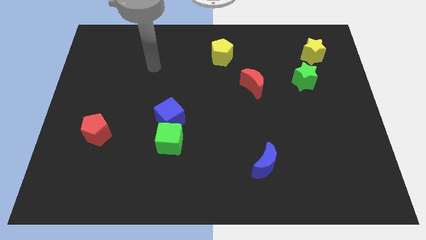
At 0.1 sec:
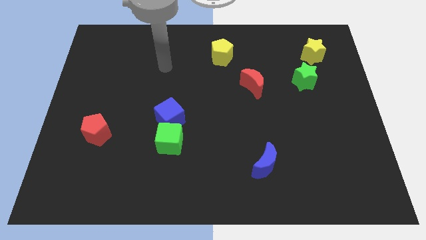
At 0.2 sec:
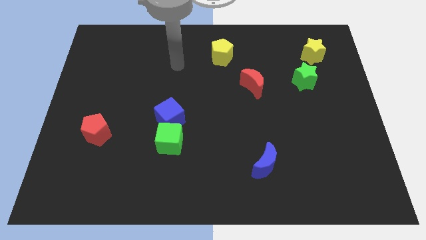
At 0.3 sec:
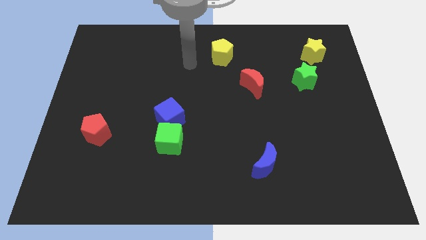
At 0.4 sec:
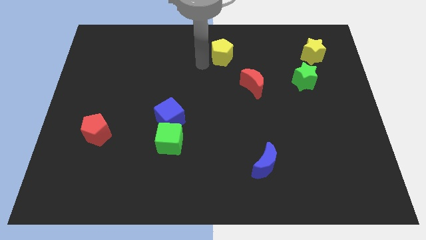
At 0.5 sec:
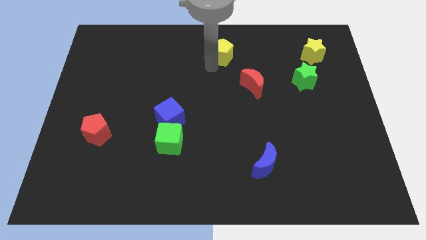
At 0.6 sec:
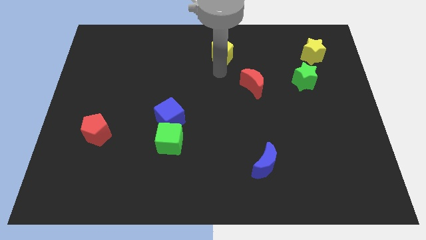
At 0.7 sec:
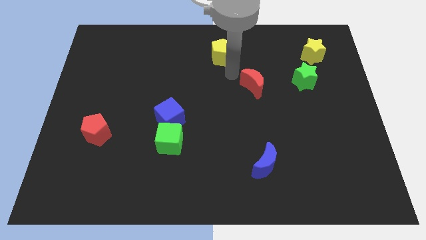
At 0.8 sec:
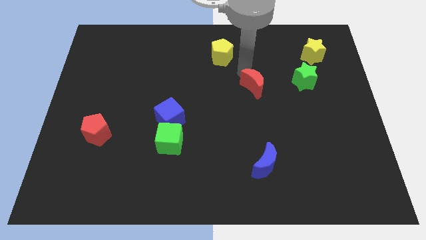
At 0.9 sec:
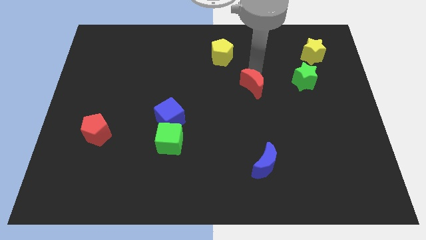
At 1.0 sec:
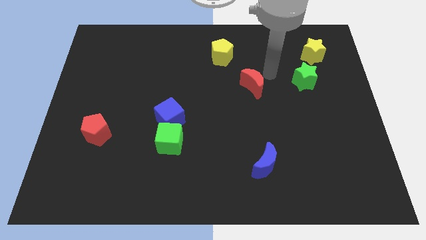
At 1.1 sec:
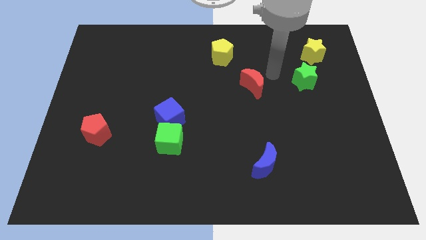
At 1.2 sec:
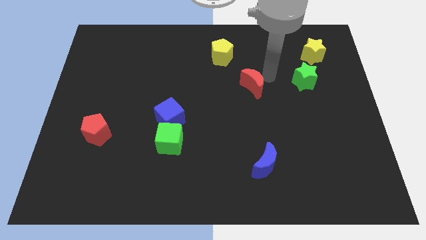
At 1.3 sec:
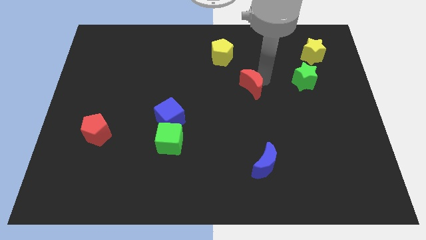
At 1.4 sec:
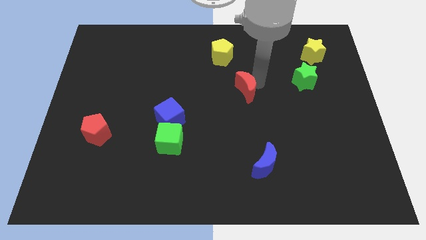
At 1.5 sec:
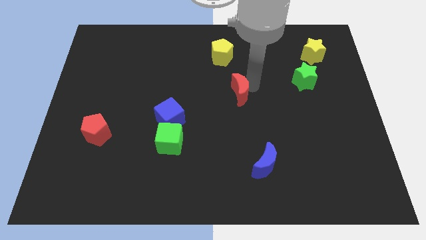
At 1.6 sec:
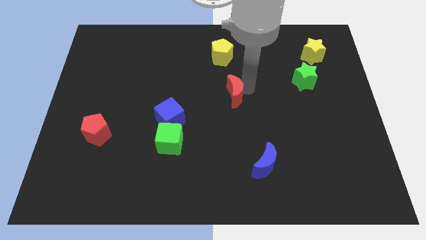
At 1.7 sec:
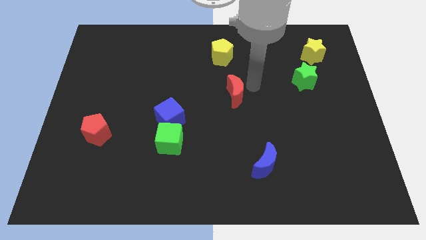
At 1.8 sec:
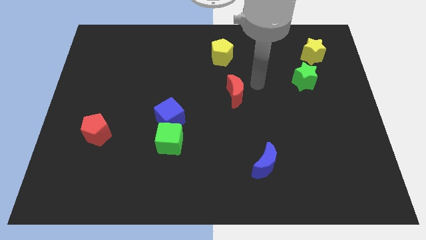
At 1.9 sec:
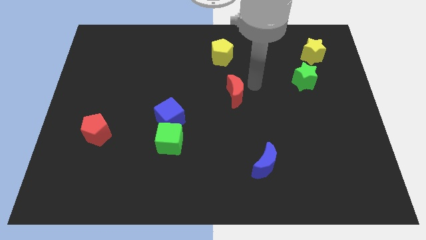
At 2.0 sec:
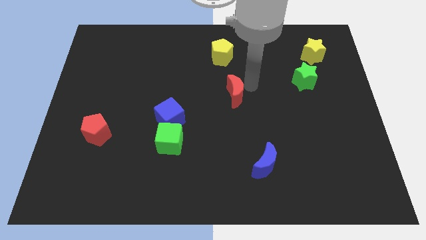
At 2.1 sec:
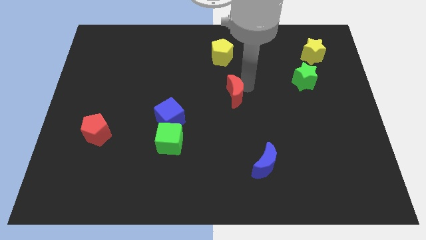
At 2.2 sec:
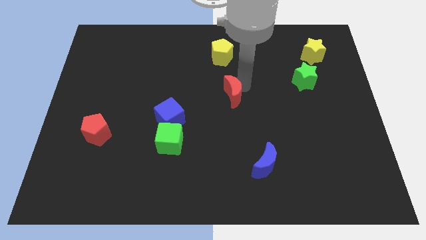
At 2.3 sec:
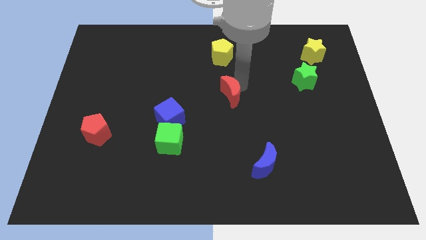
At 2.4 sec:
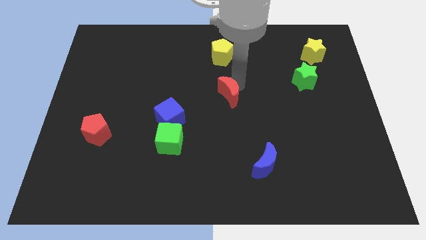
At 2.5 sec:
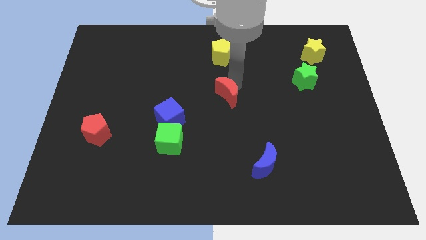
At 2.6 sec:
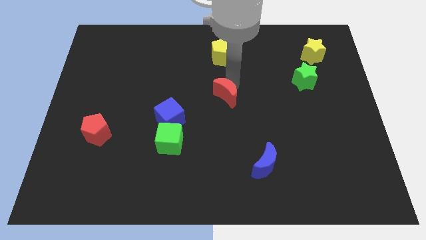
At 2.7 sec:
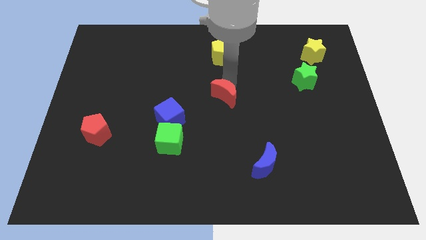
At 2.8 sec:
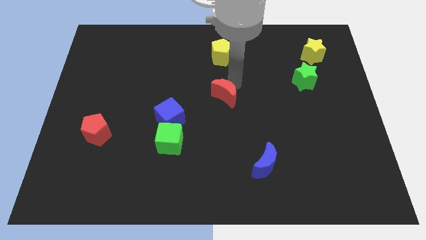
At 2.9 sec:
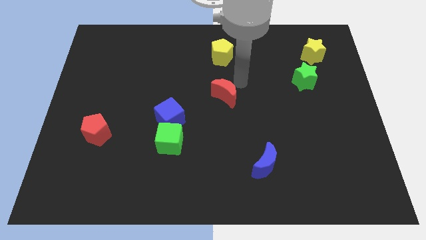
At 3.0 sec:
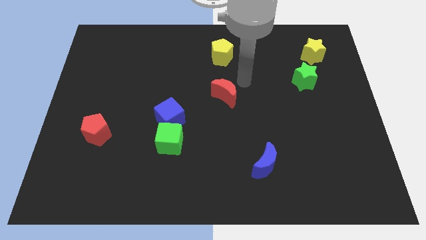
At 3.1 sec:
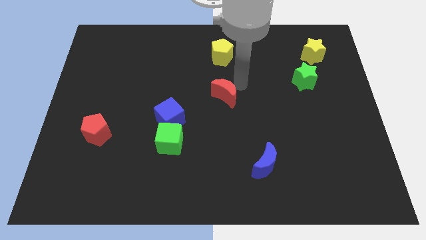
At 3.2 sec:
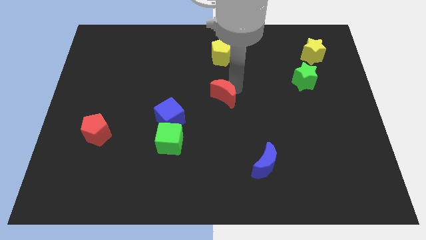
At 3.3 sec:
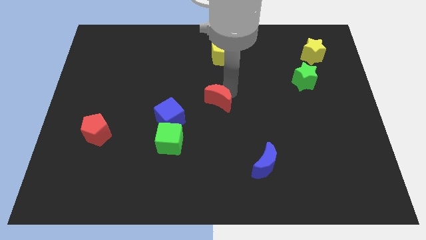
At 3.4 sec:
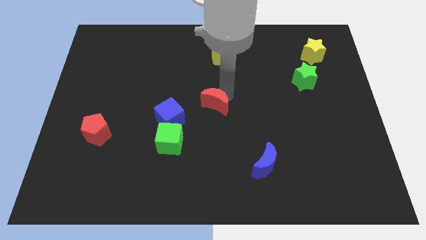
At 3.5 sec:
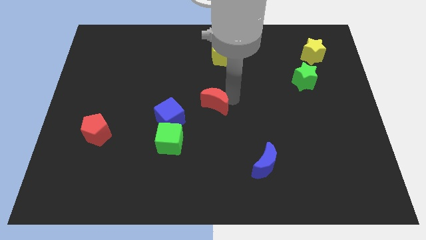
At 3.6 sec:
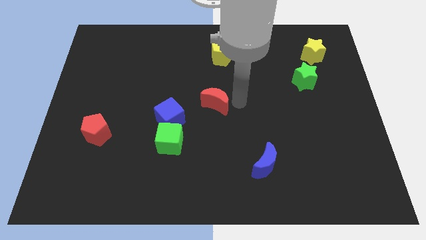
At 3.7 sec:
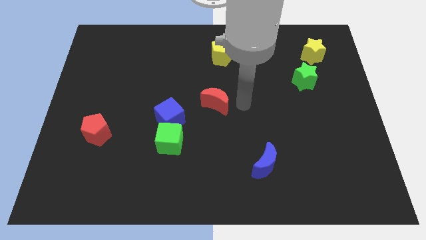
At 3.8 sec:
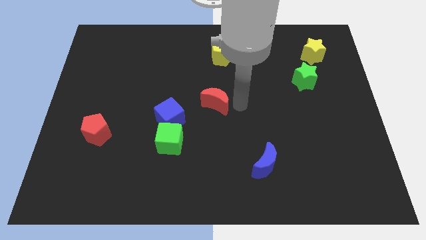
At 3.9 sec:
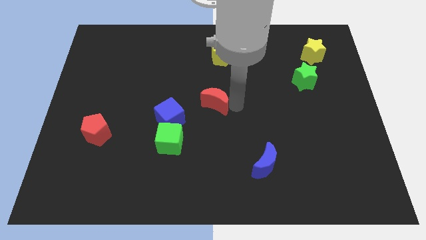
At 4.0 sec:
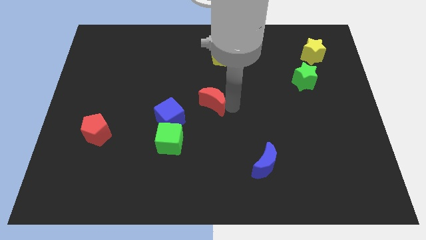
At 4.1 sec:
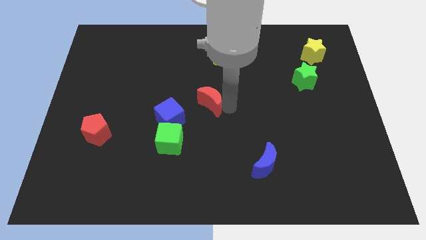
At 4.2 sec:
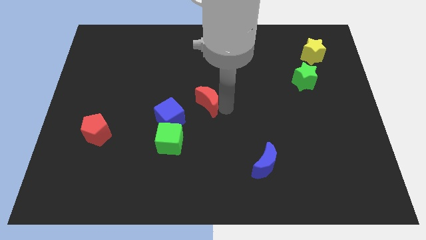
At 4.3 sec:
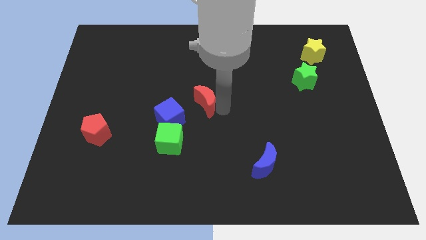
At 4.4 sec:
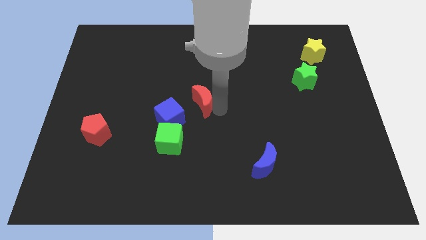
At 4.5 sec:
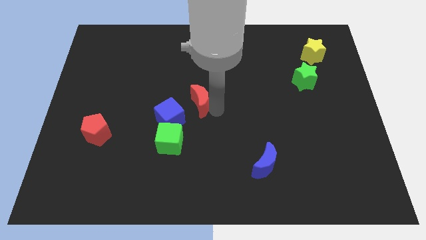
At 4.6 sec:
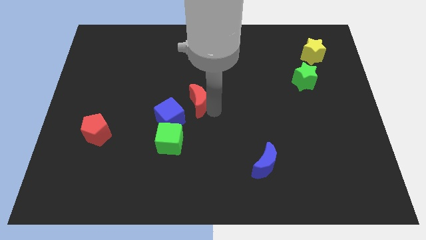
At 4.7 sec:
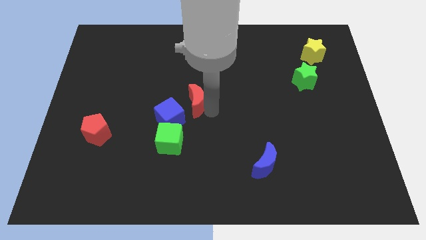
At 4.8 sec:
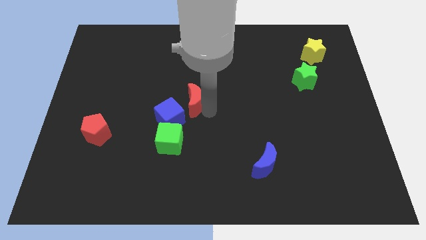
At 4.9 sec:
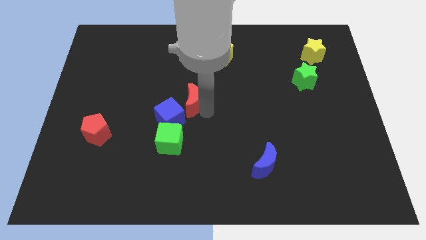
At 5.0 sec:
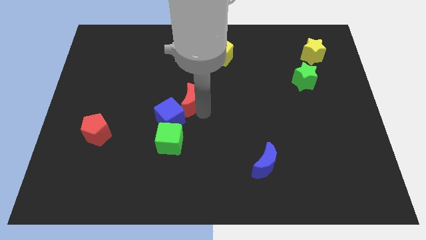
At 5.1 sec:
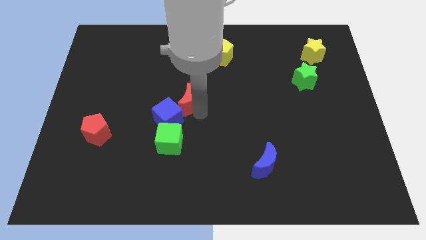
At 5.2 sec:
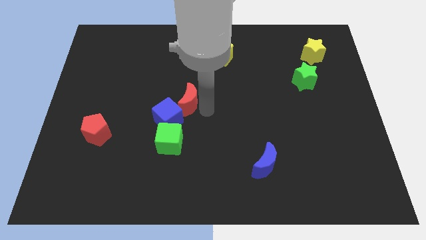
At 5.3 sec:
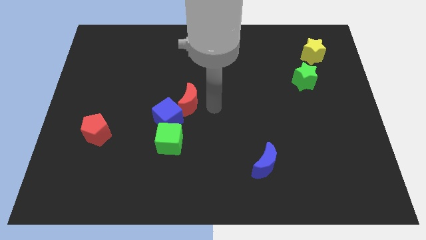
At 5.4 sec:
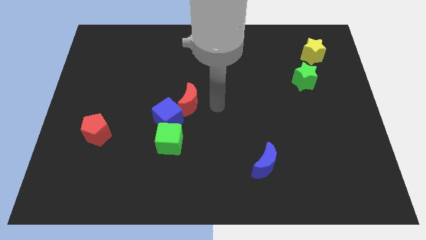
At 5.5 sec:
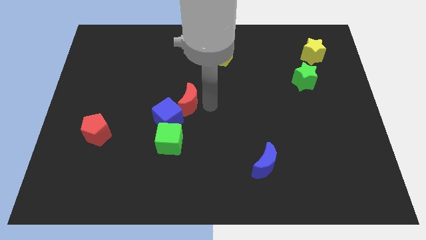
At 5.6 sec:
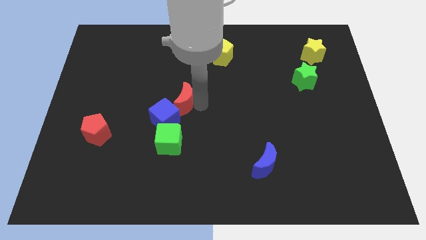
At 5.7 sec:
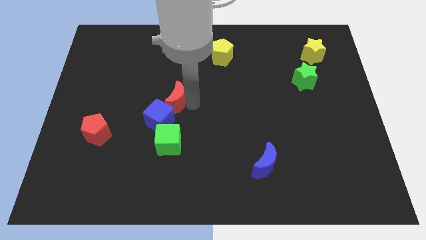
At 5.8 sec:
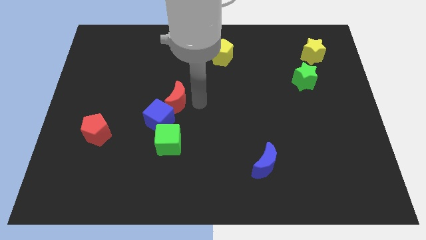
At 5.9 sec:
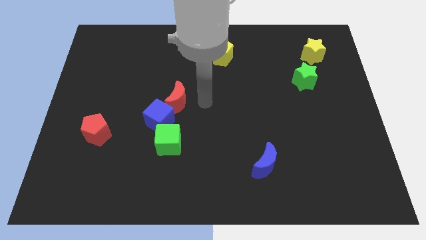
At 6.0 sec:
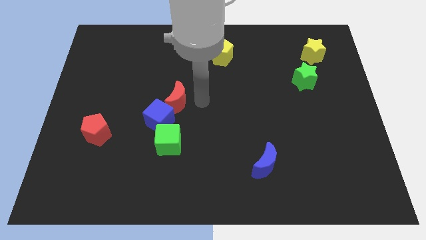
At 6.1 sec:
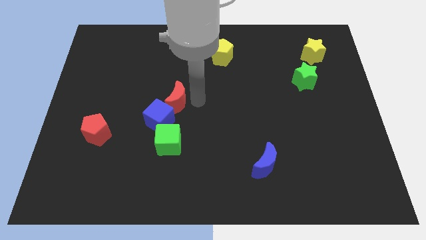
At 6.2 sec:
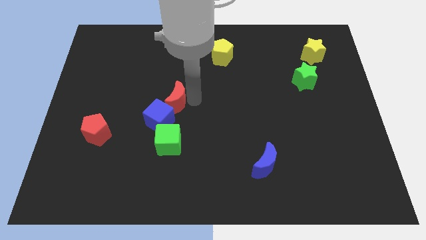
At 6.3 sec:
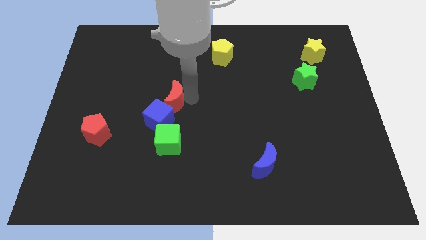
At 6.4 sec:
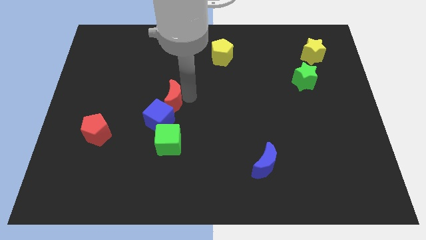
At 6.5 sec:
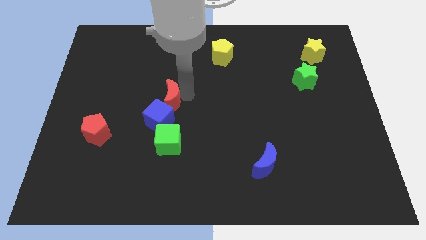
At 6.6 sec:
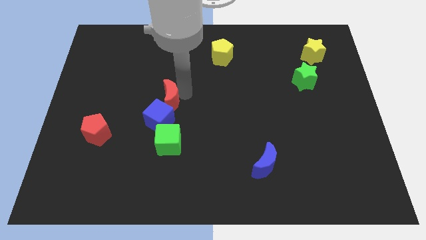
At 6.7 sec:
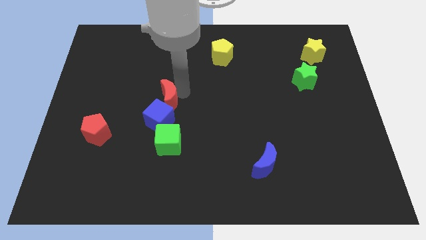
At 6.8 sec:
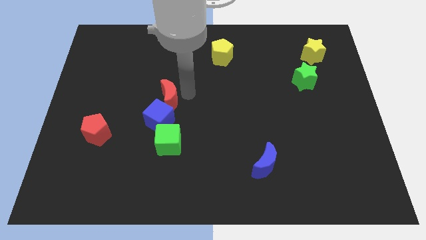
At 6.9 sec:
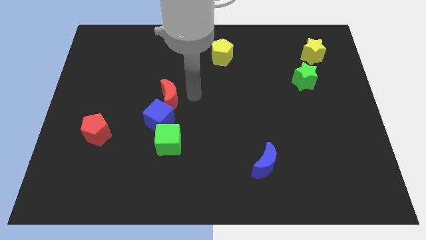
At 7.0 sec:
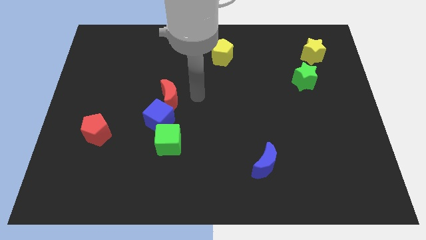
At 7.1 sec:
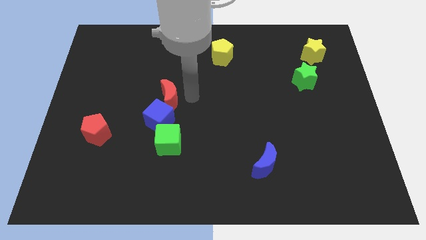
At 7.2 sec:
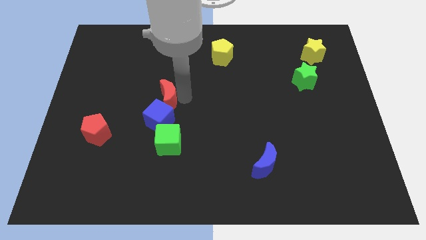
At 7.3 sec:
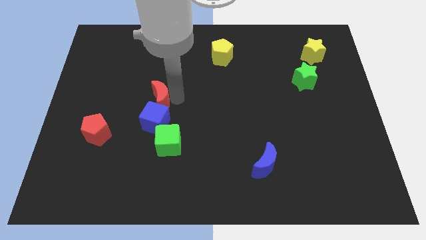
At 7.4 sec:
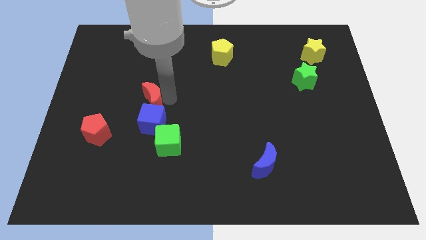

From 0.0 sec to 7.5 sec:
move the red moon to the top left of the blue cube
